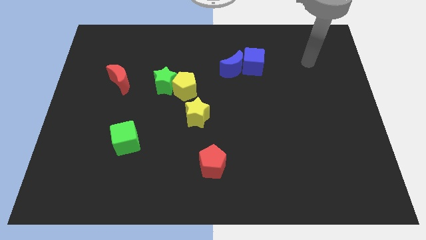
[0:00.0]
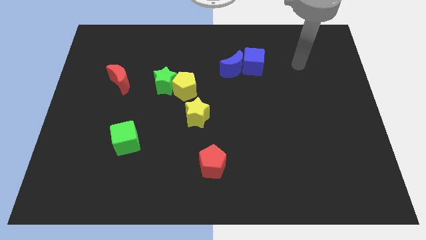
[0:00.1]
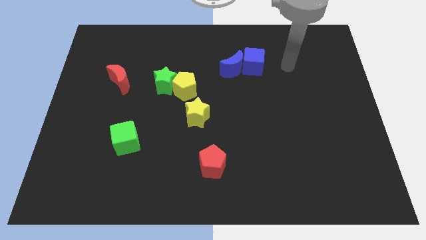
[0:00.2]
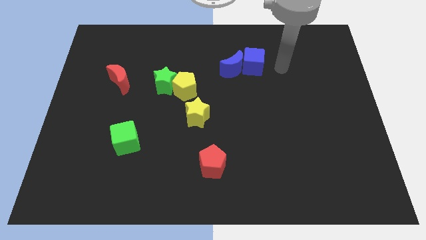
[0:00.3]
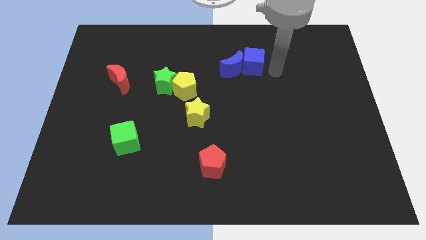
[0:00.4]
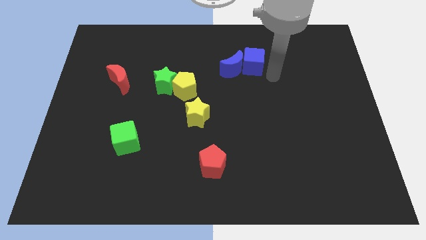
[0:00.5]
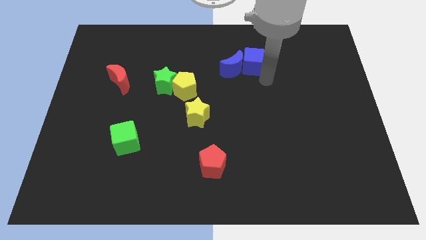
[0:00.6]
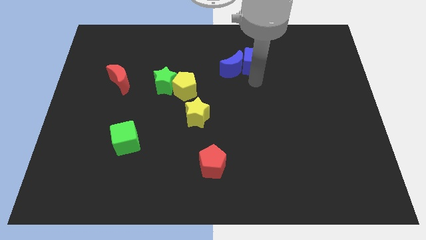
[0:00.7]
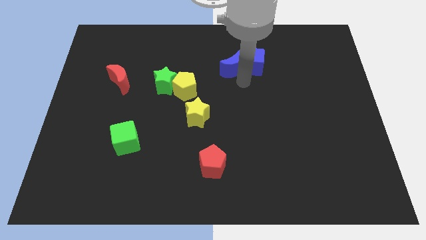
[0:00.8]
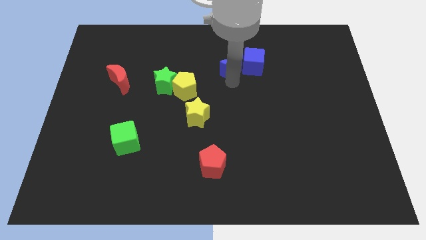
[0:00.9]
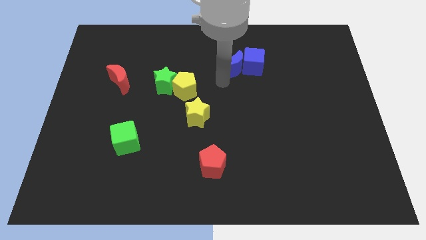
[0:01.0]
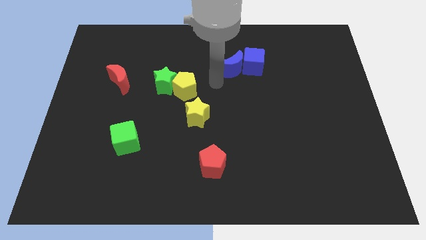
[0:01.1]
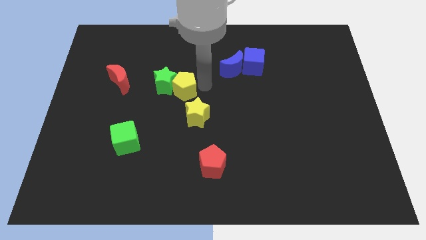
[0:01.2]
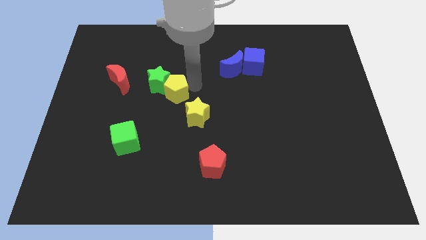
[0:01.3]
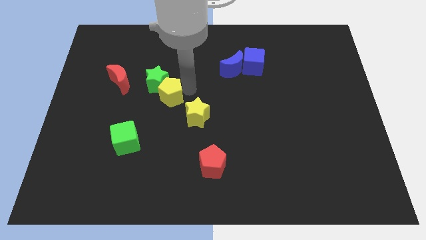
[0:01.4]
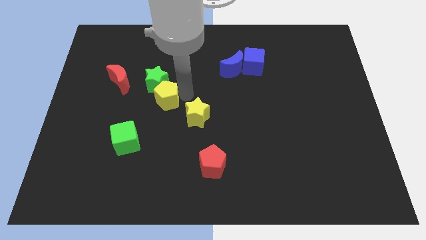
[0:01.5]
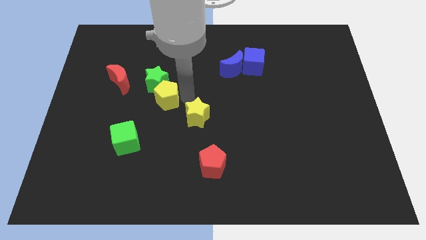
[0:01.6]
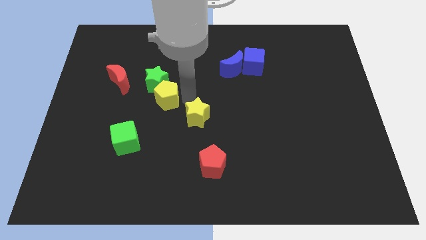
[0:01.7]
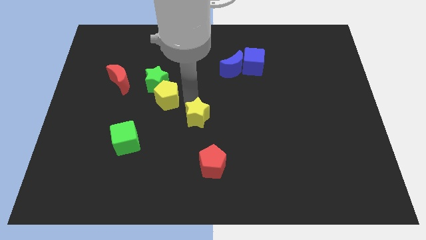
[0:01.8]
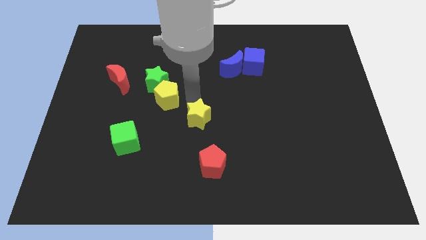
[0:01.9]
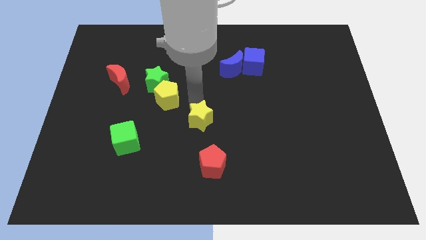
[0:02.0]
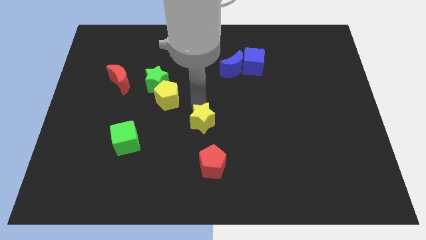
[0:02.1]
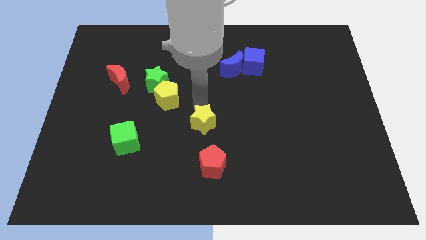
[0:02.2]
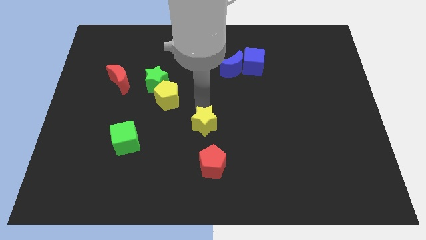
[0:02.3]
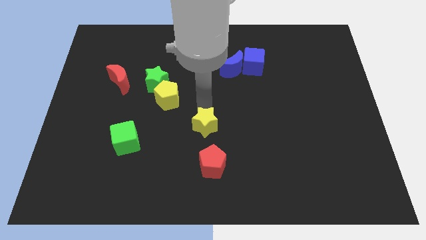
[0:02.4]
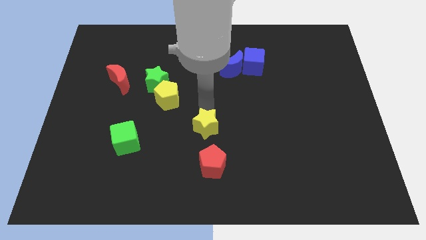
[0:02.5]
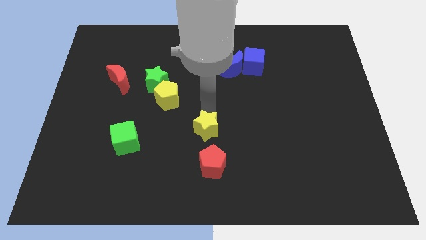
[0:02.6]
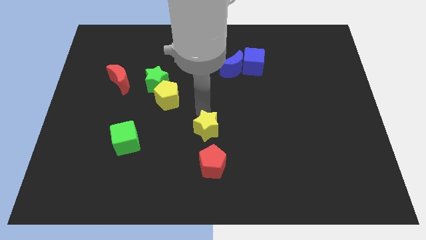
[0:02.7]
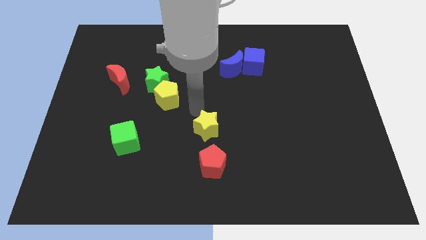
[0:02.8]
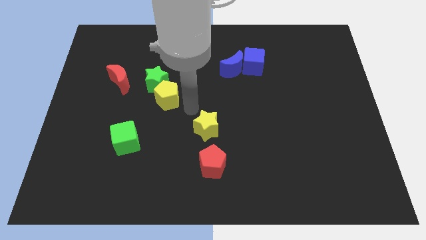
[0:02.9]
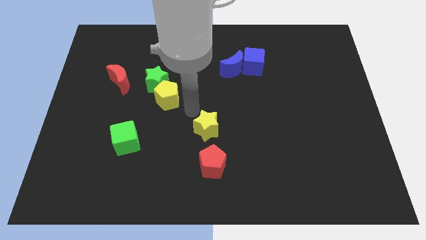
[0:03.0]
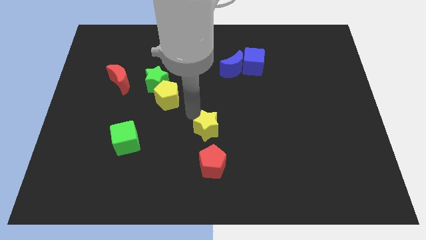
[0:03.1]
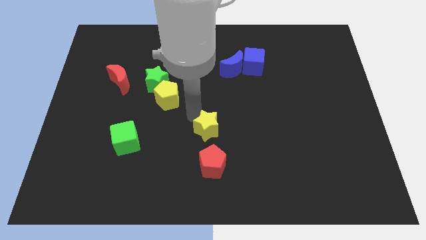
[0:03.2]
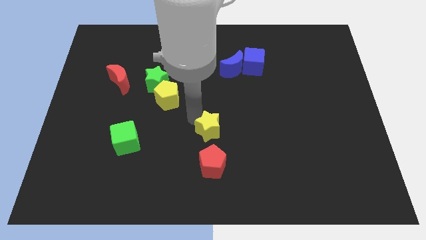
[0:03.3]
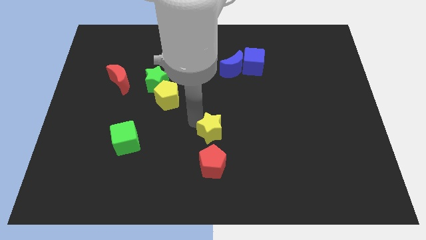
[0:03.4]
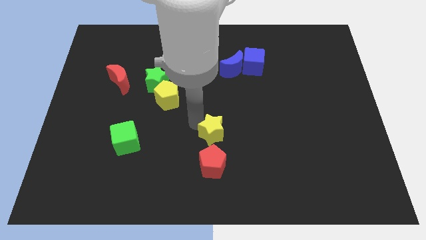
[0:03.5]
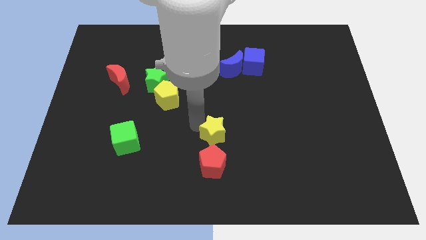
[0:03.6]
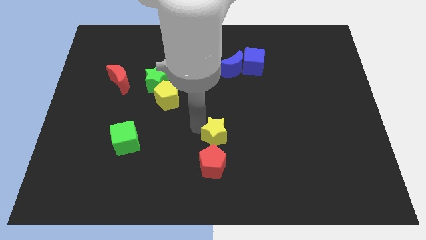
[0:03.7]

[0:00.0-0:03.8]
push the yellow star downwards and then right a bit

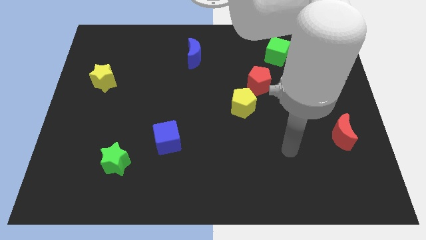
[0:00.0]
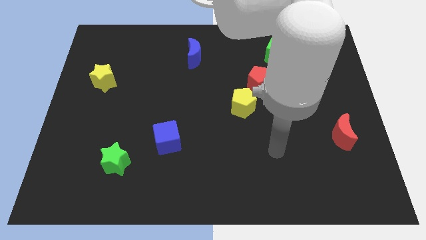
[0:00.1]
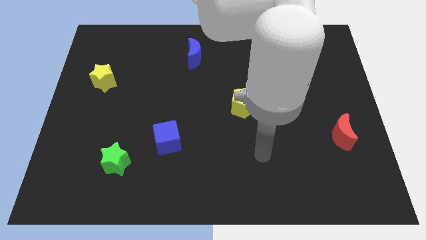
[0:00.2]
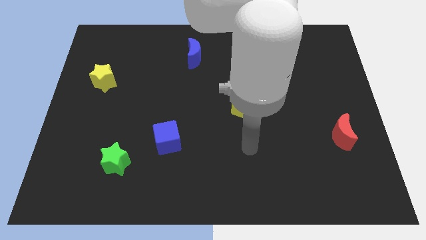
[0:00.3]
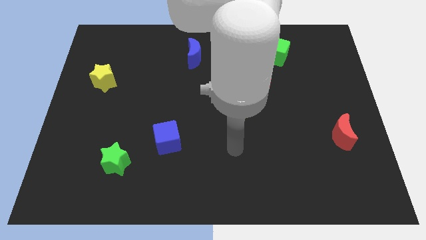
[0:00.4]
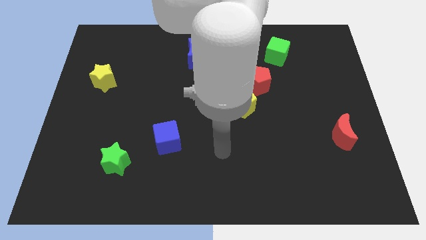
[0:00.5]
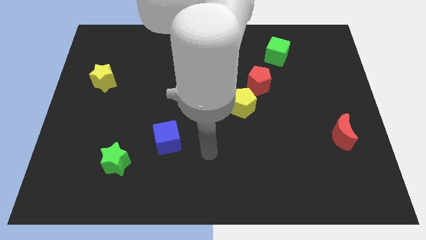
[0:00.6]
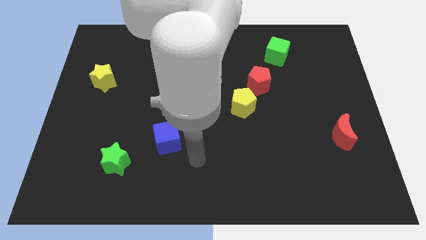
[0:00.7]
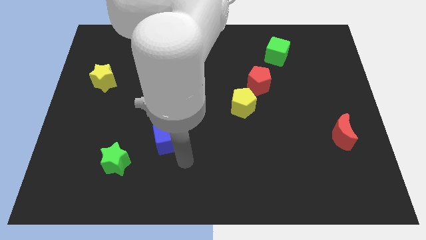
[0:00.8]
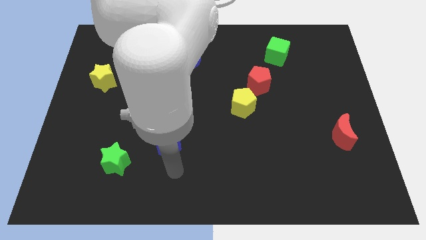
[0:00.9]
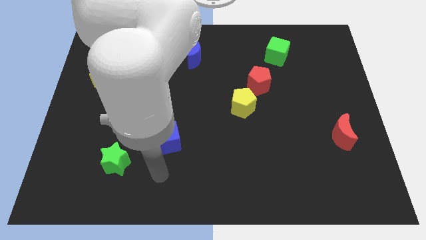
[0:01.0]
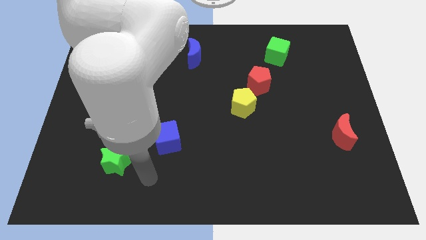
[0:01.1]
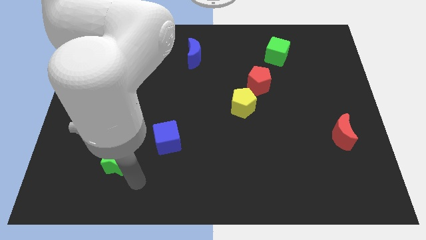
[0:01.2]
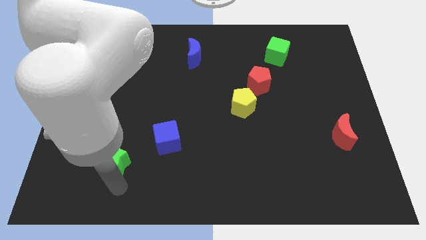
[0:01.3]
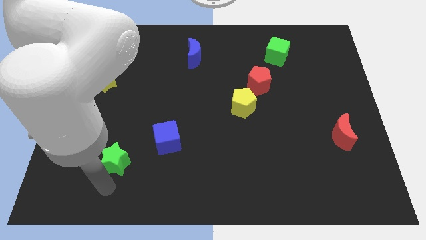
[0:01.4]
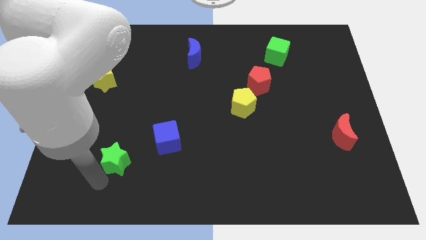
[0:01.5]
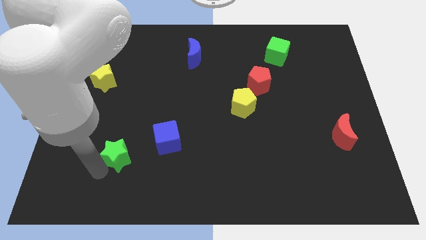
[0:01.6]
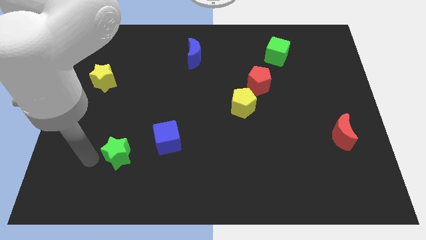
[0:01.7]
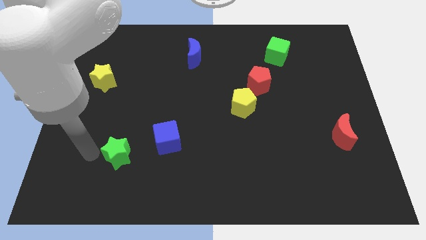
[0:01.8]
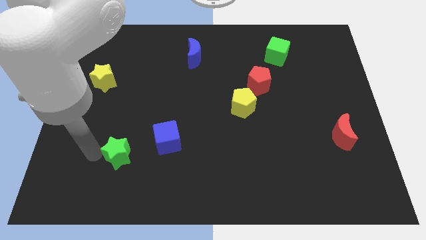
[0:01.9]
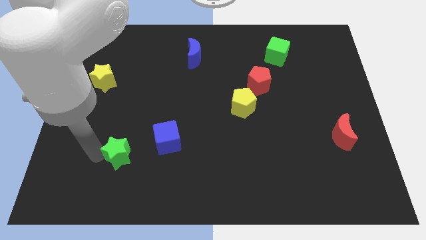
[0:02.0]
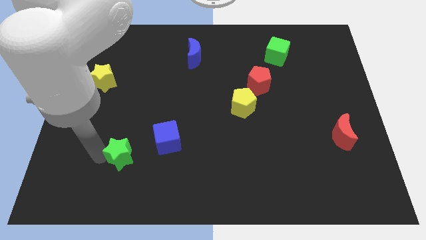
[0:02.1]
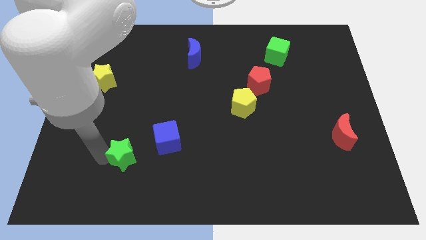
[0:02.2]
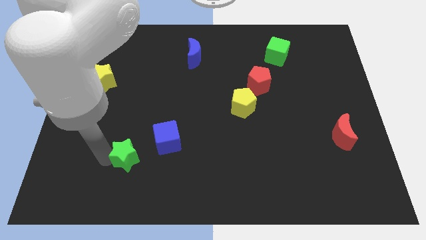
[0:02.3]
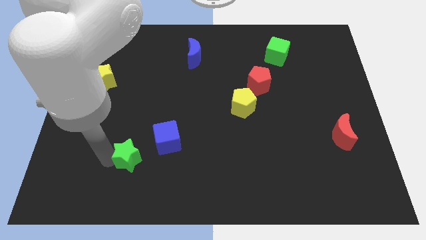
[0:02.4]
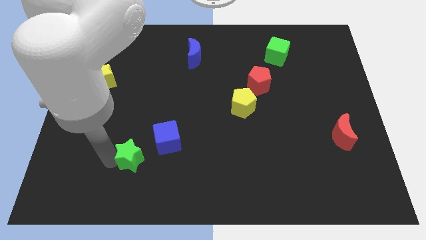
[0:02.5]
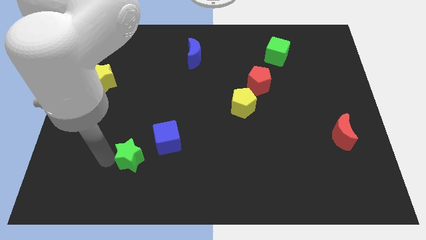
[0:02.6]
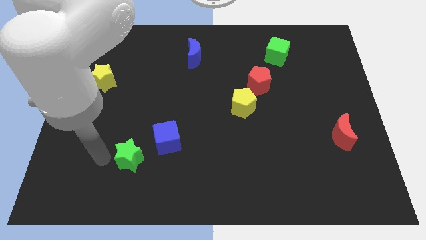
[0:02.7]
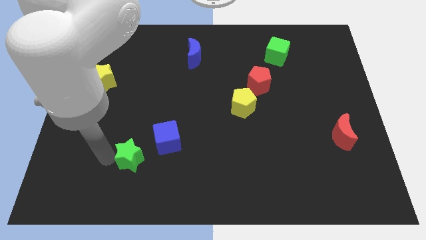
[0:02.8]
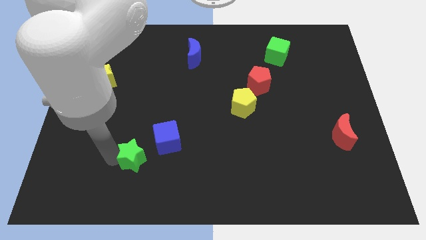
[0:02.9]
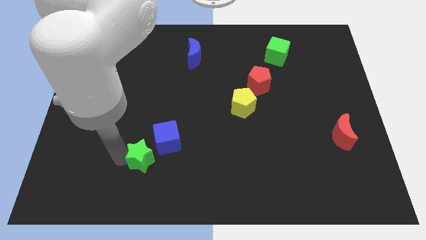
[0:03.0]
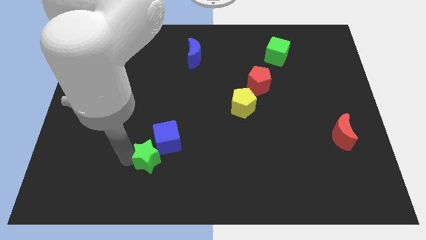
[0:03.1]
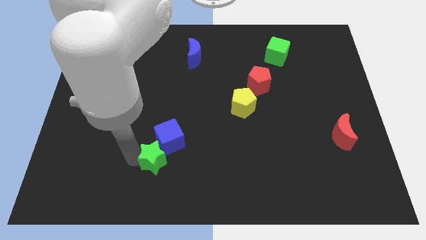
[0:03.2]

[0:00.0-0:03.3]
move the green star slightly right

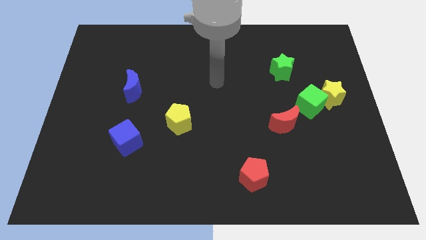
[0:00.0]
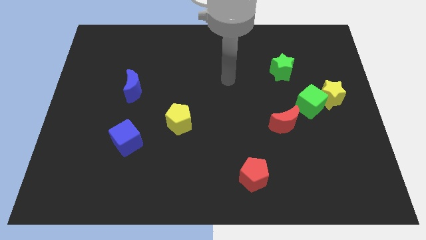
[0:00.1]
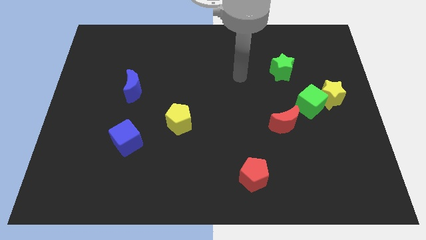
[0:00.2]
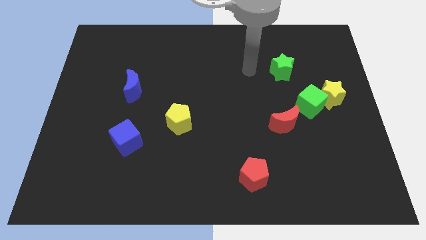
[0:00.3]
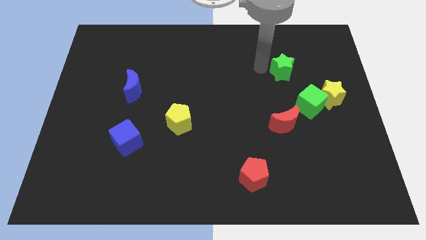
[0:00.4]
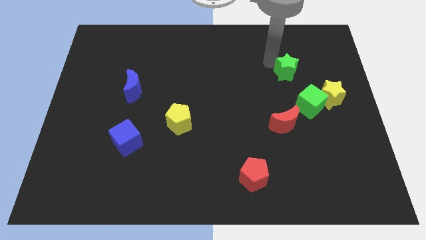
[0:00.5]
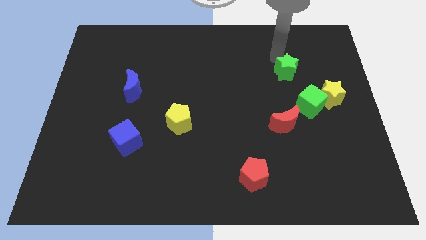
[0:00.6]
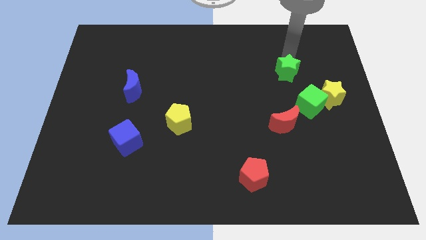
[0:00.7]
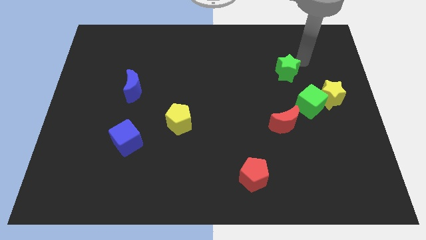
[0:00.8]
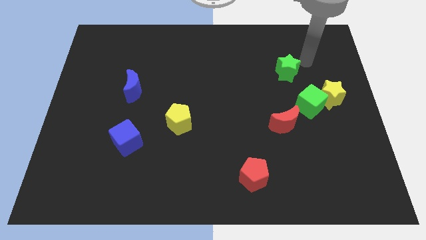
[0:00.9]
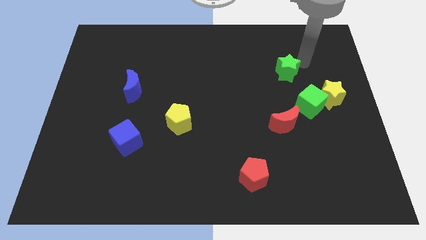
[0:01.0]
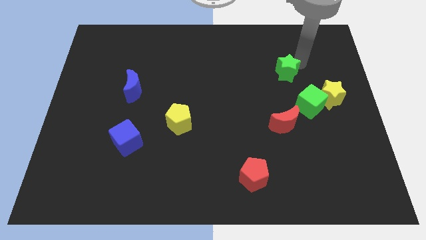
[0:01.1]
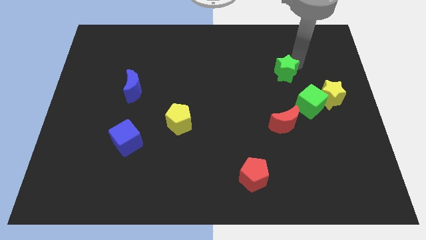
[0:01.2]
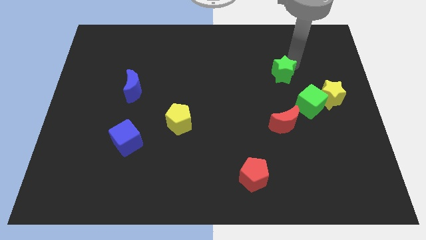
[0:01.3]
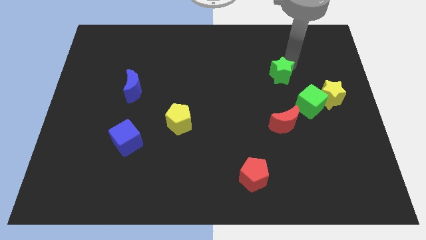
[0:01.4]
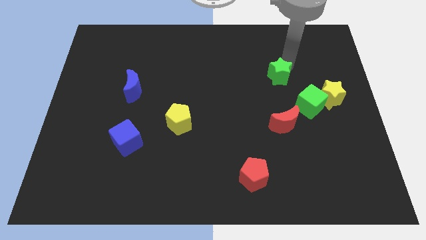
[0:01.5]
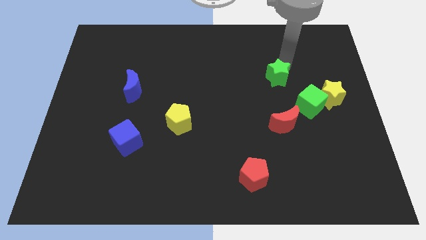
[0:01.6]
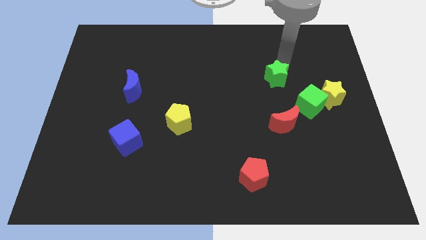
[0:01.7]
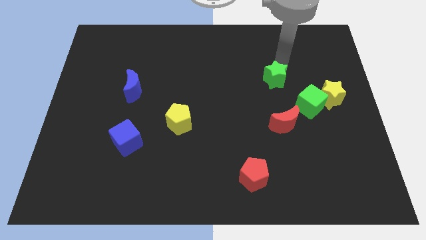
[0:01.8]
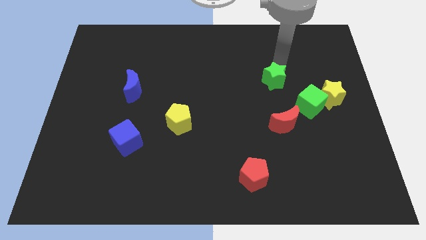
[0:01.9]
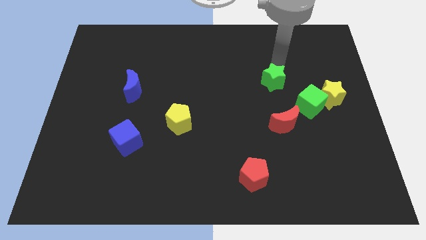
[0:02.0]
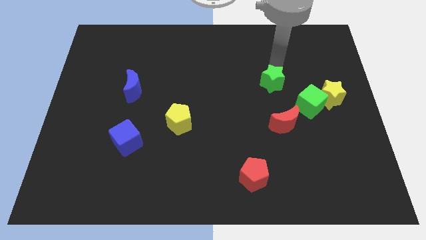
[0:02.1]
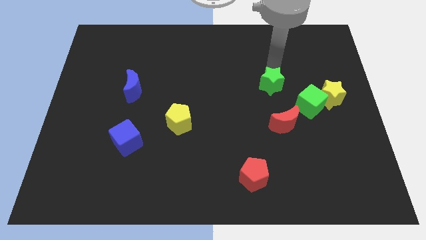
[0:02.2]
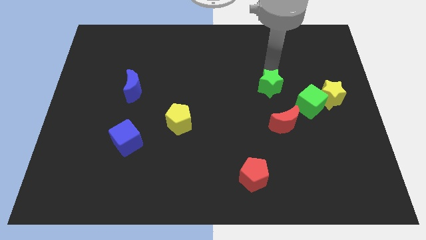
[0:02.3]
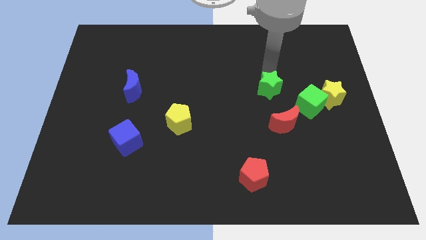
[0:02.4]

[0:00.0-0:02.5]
slightly slide the green star down and then to the left
